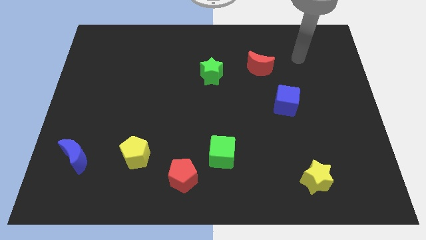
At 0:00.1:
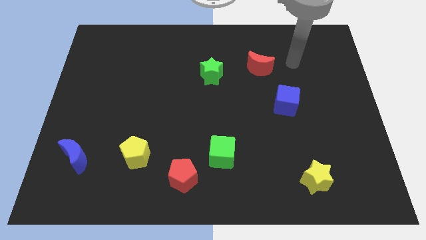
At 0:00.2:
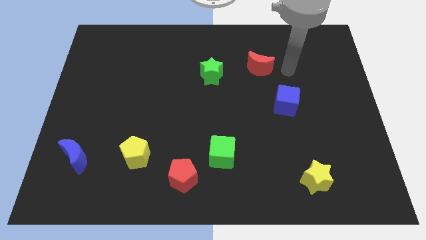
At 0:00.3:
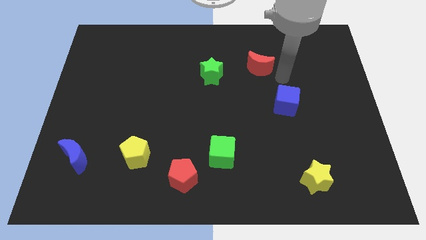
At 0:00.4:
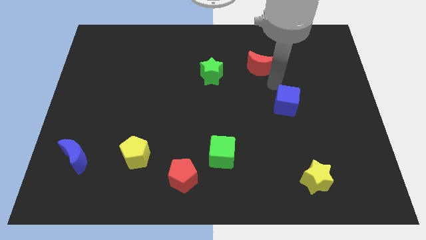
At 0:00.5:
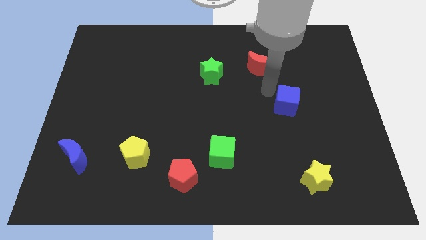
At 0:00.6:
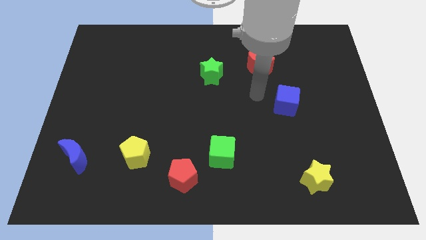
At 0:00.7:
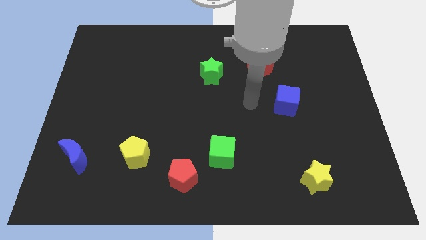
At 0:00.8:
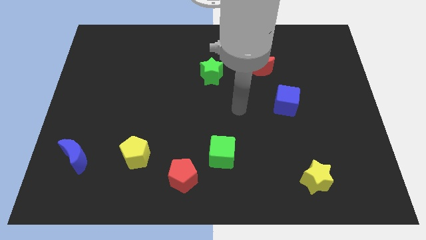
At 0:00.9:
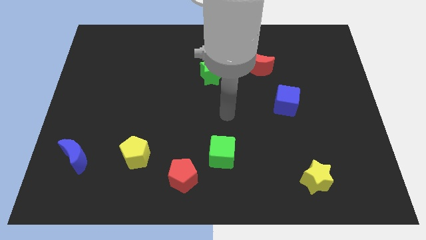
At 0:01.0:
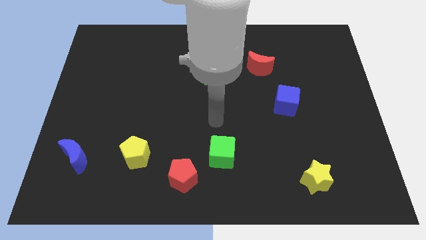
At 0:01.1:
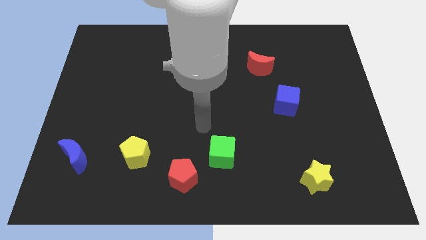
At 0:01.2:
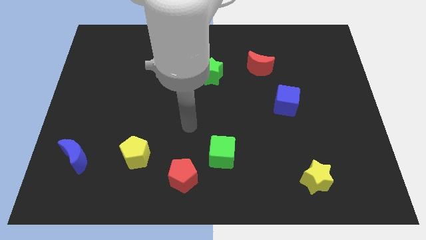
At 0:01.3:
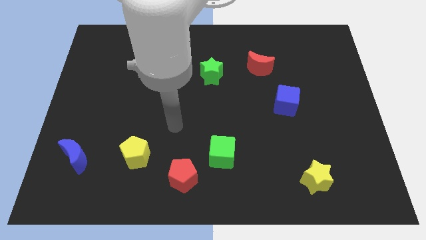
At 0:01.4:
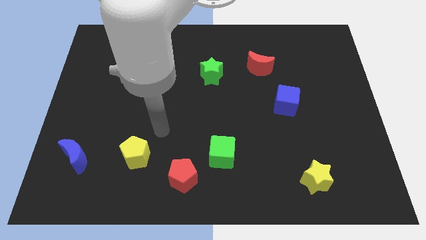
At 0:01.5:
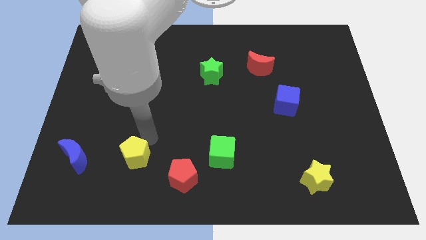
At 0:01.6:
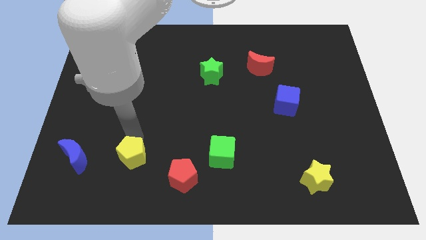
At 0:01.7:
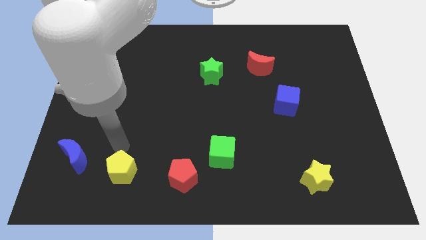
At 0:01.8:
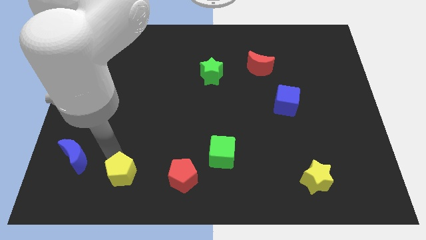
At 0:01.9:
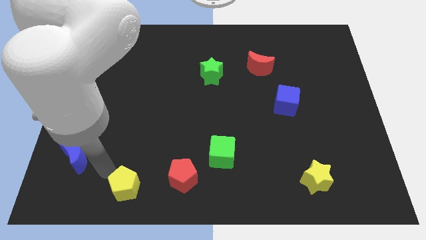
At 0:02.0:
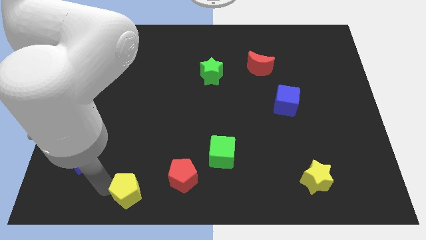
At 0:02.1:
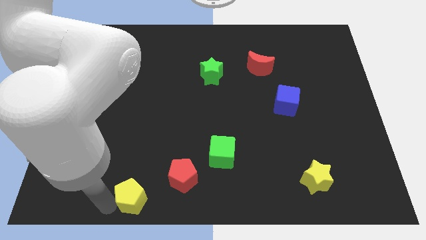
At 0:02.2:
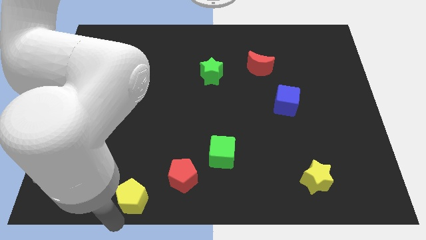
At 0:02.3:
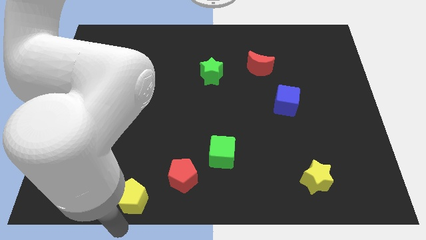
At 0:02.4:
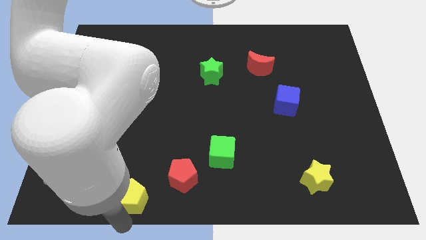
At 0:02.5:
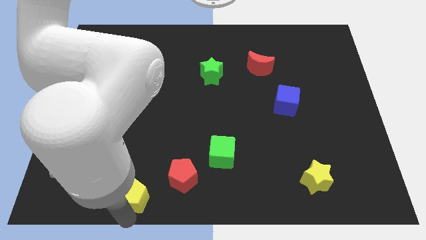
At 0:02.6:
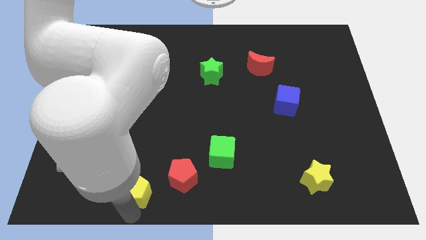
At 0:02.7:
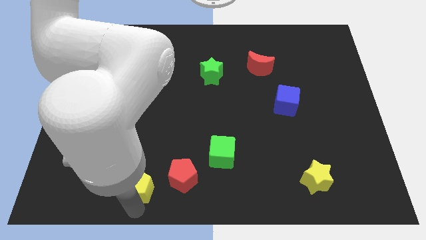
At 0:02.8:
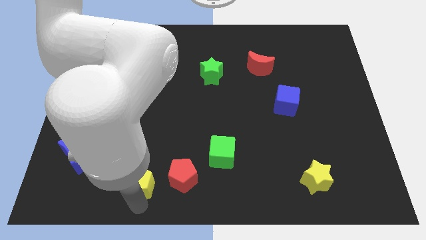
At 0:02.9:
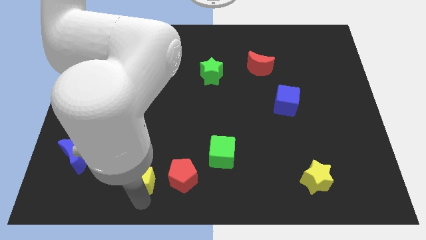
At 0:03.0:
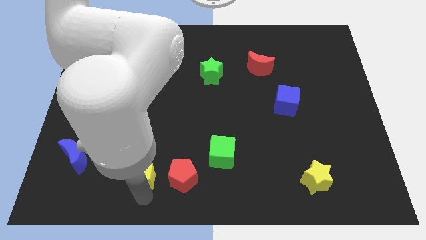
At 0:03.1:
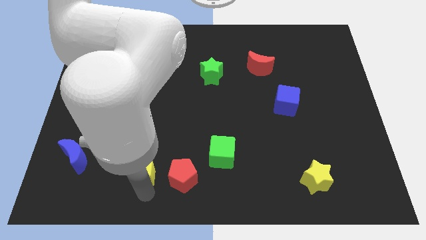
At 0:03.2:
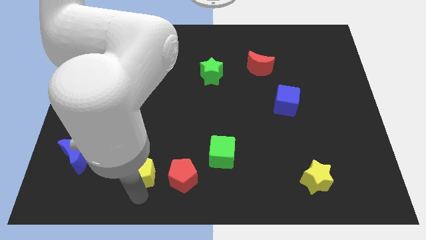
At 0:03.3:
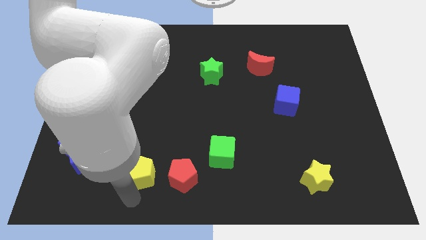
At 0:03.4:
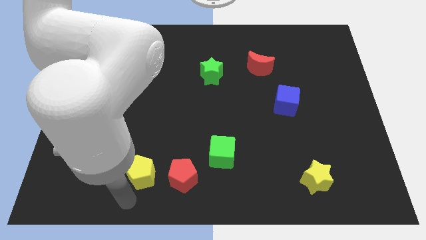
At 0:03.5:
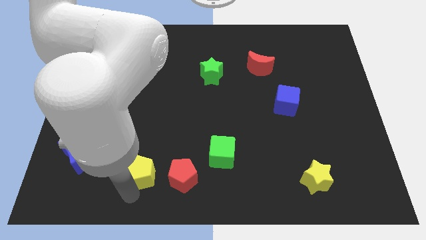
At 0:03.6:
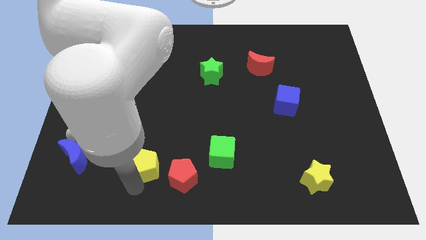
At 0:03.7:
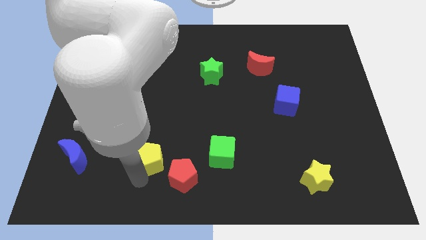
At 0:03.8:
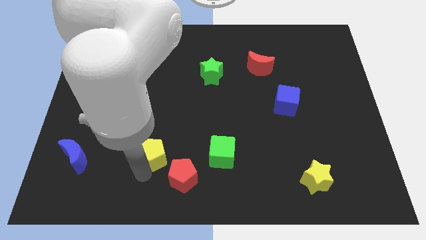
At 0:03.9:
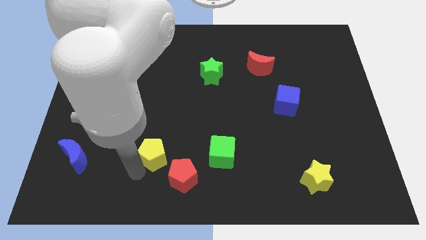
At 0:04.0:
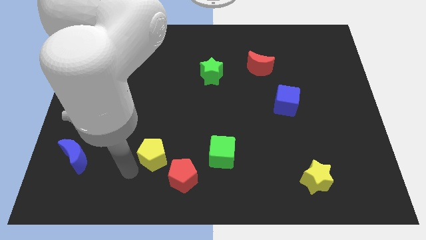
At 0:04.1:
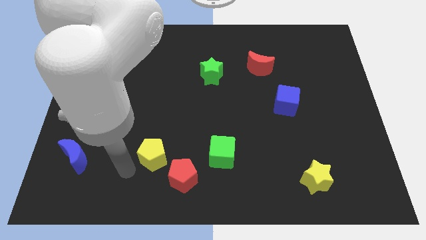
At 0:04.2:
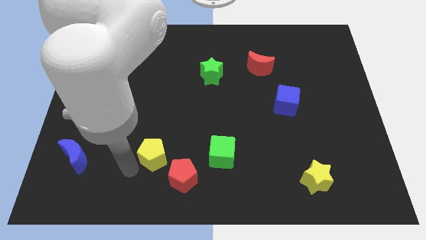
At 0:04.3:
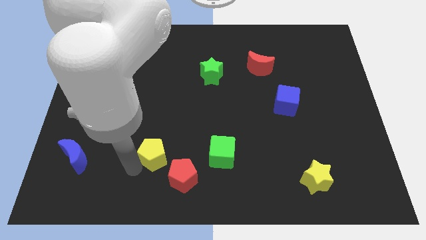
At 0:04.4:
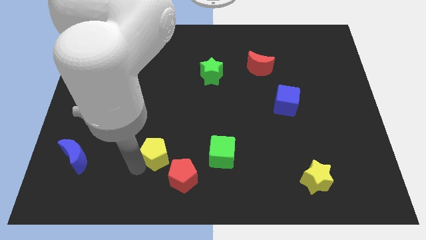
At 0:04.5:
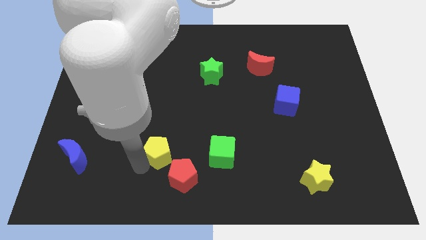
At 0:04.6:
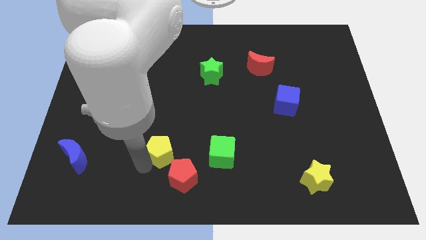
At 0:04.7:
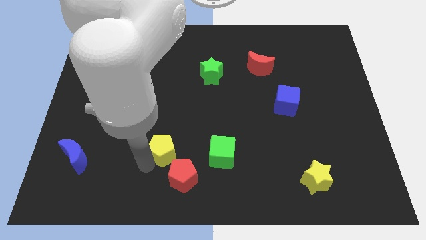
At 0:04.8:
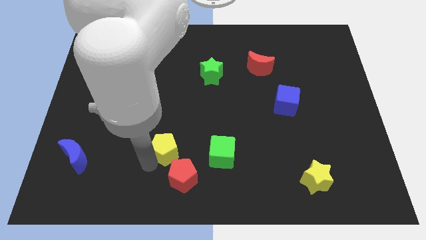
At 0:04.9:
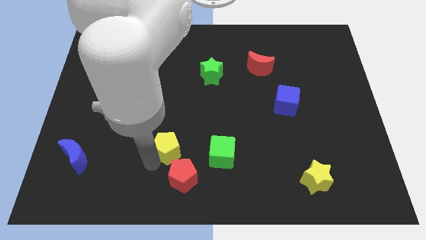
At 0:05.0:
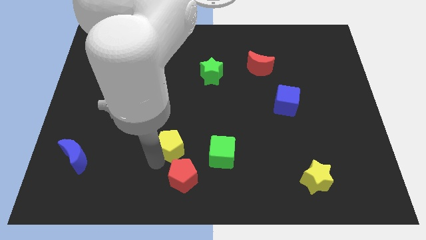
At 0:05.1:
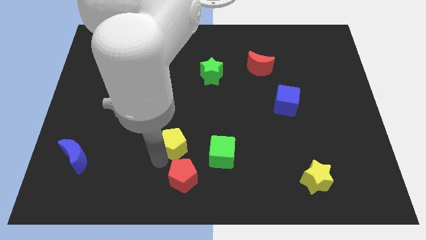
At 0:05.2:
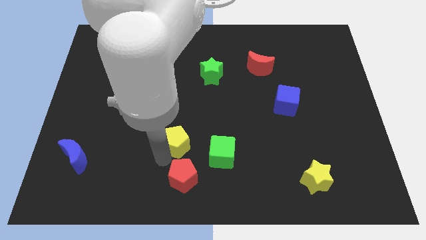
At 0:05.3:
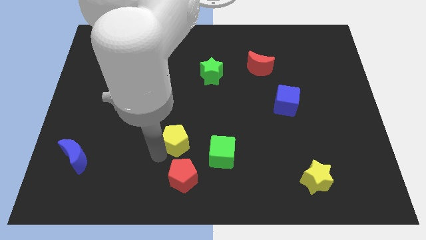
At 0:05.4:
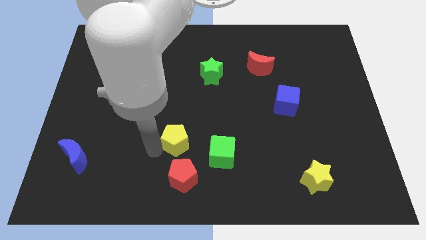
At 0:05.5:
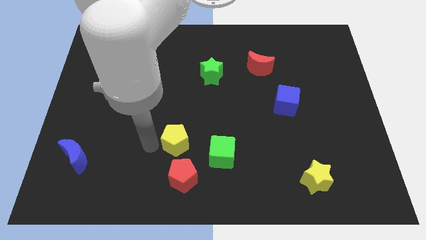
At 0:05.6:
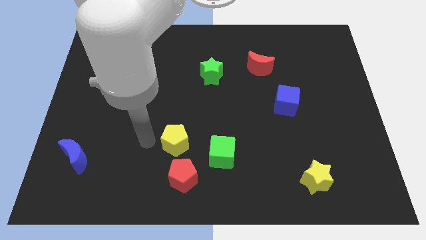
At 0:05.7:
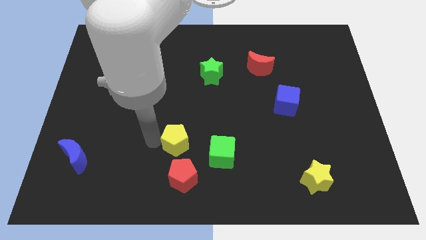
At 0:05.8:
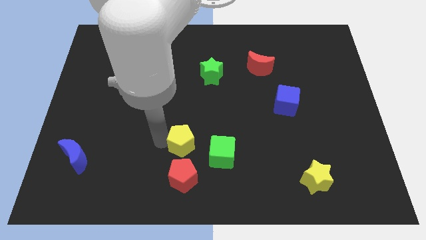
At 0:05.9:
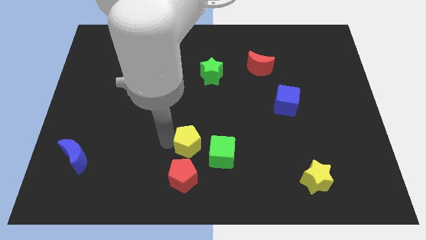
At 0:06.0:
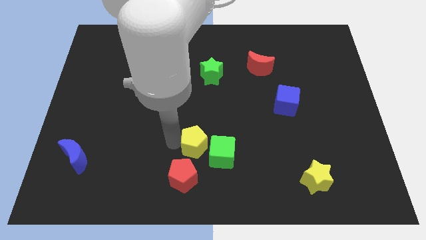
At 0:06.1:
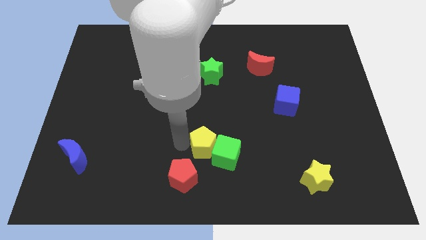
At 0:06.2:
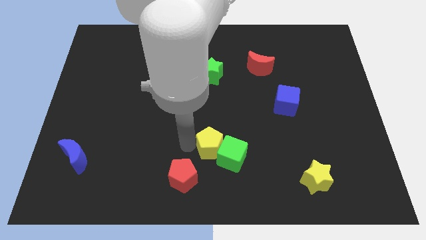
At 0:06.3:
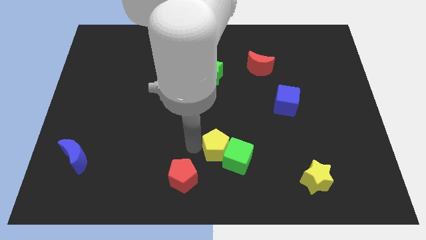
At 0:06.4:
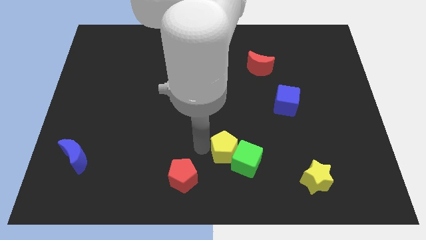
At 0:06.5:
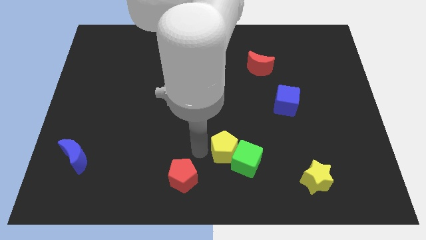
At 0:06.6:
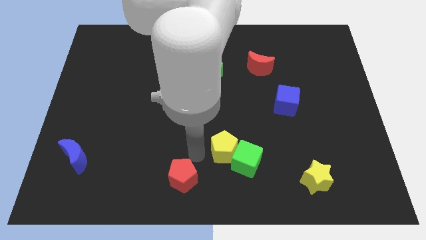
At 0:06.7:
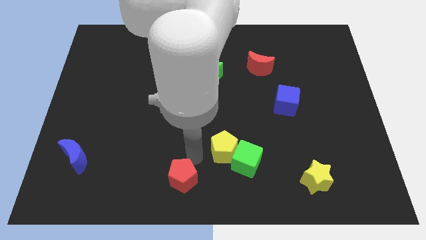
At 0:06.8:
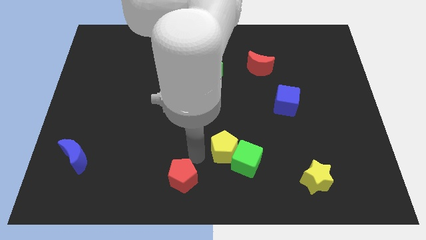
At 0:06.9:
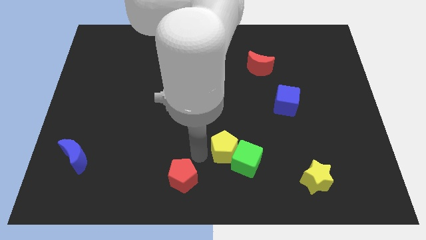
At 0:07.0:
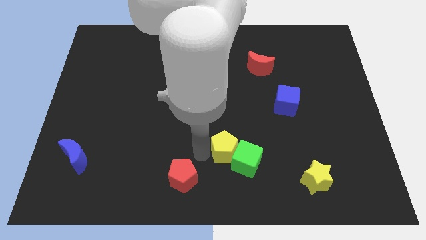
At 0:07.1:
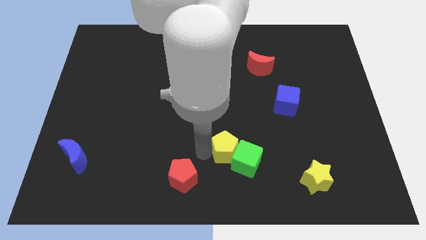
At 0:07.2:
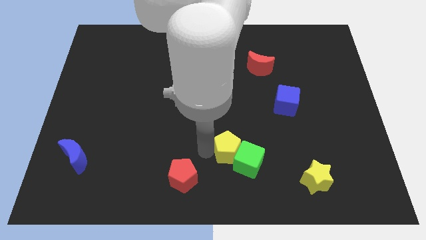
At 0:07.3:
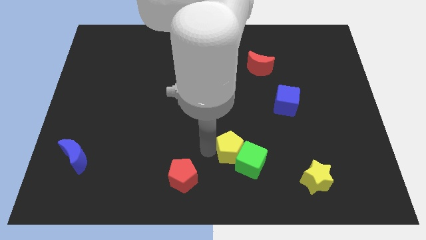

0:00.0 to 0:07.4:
move the yellow pentagon to the right

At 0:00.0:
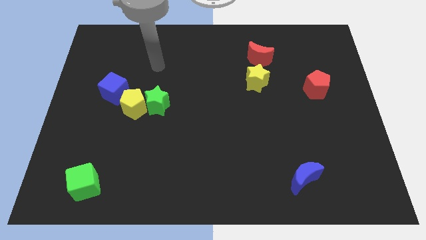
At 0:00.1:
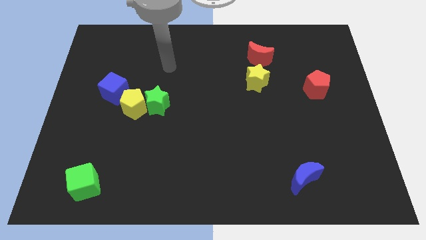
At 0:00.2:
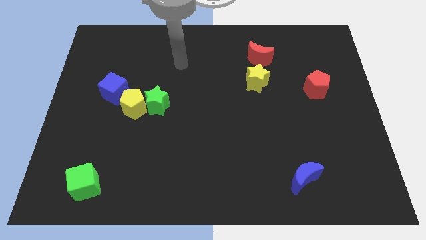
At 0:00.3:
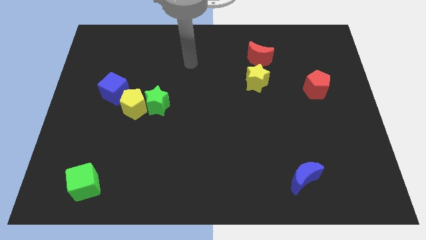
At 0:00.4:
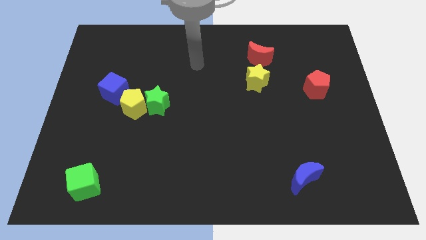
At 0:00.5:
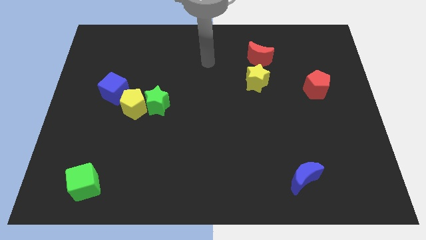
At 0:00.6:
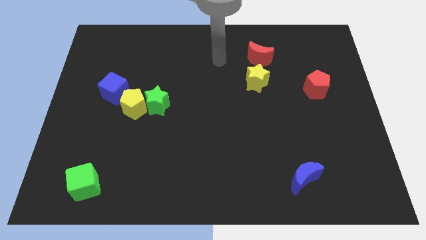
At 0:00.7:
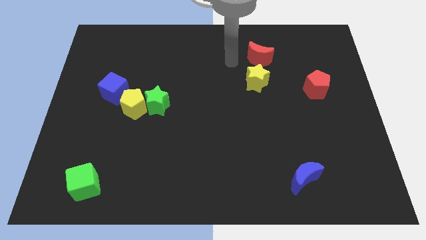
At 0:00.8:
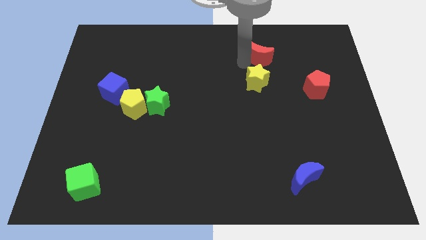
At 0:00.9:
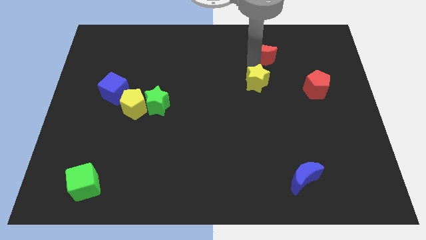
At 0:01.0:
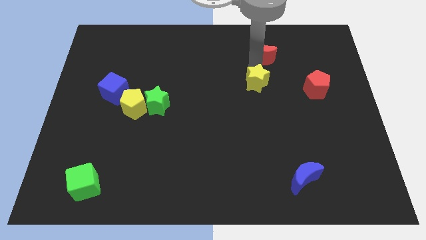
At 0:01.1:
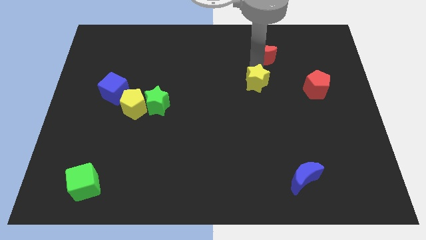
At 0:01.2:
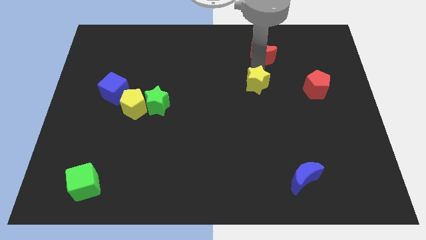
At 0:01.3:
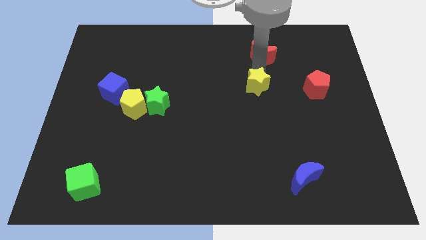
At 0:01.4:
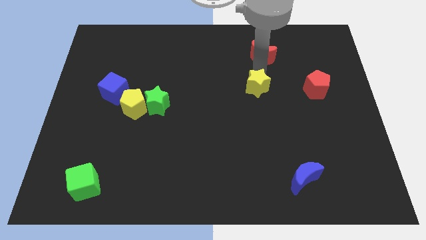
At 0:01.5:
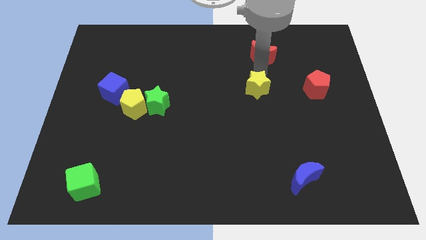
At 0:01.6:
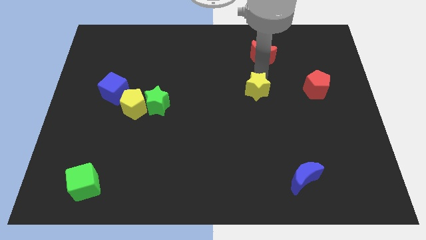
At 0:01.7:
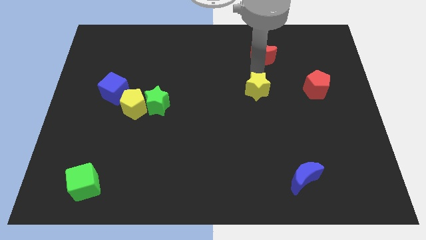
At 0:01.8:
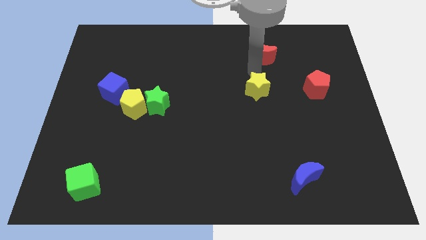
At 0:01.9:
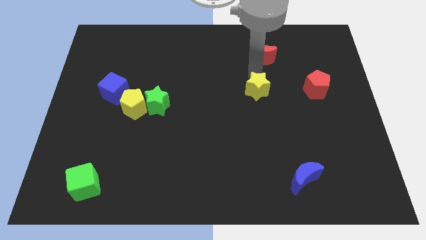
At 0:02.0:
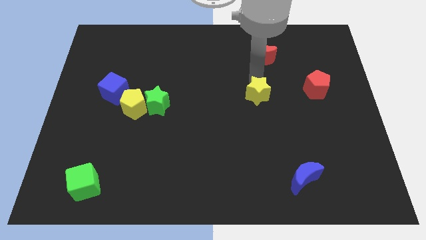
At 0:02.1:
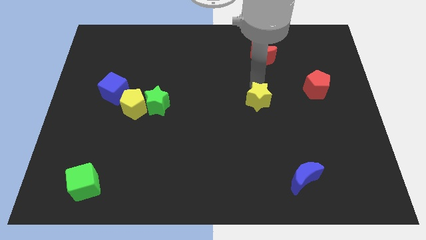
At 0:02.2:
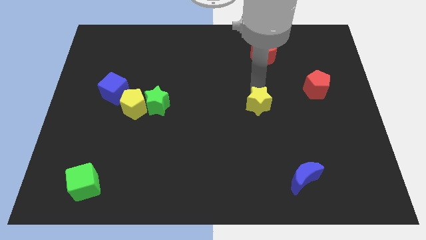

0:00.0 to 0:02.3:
move the yellow star somewhat downwards
